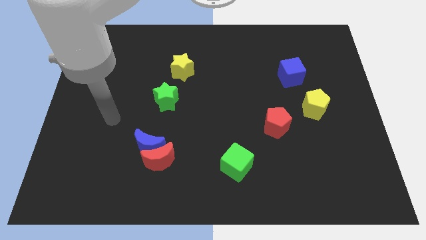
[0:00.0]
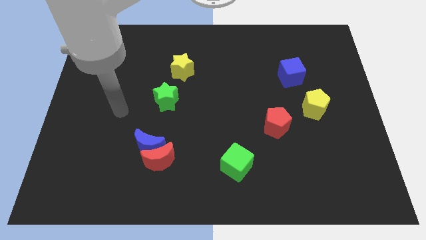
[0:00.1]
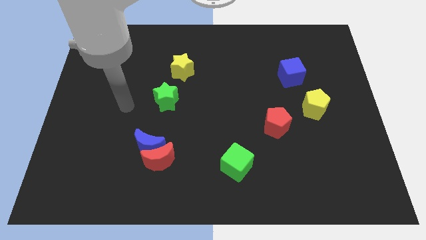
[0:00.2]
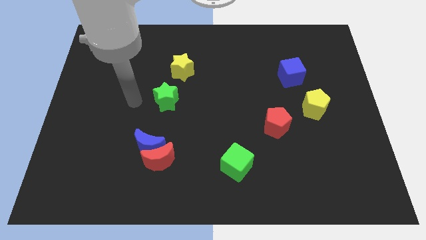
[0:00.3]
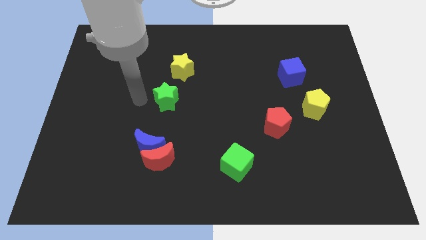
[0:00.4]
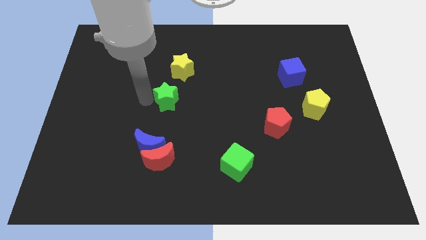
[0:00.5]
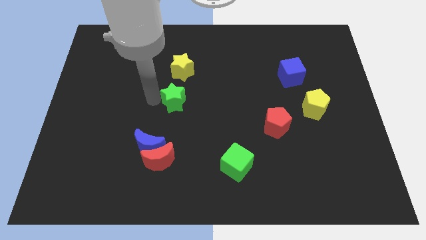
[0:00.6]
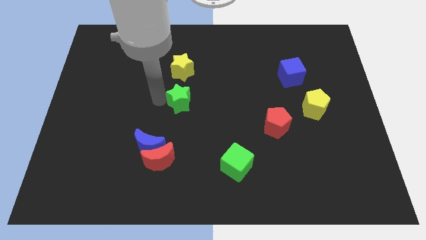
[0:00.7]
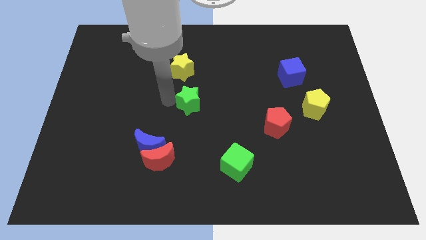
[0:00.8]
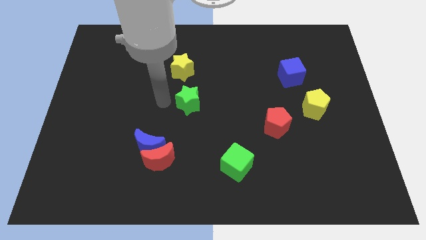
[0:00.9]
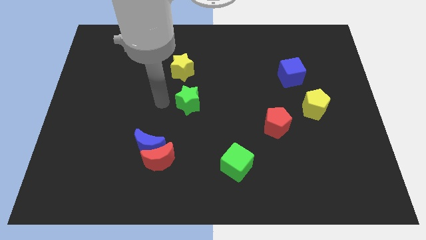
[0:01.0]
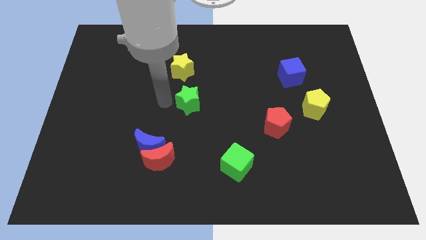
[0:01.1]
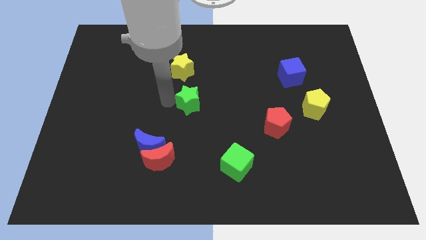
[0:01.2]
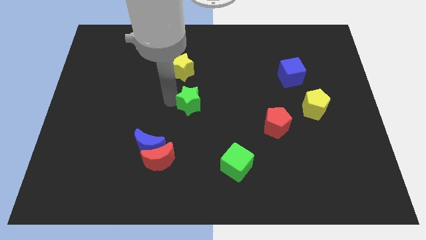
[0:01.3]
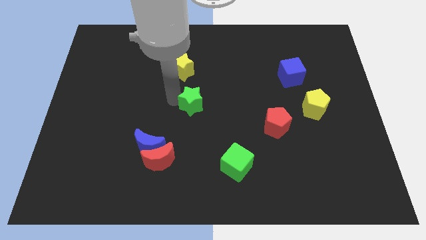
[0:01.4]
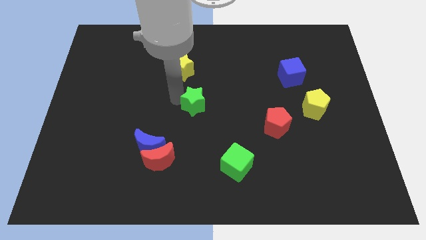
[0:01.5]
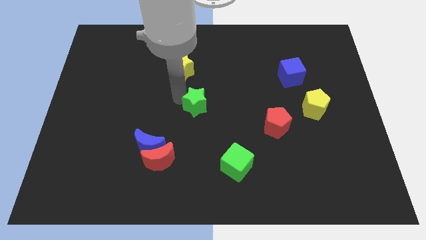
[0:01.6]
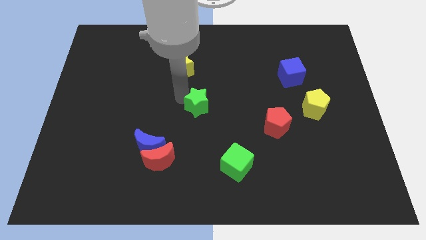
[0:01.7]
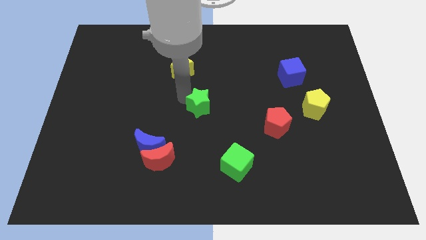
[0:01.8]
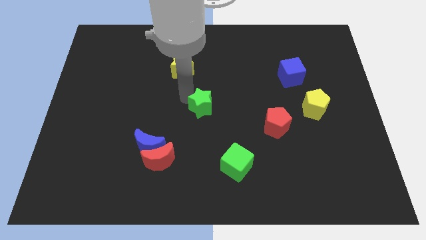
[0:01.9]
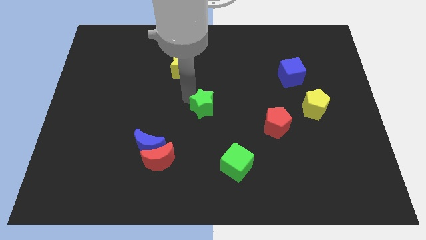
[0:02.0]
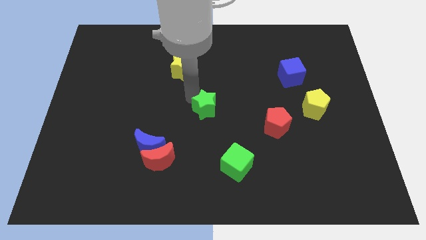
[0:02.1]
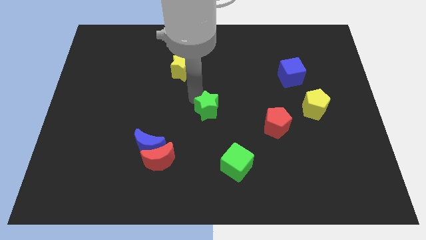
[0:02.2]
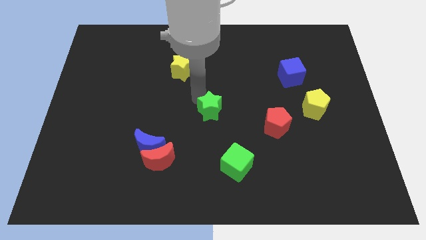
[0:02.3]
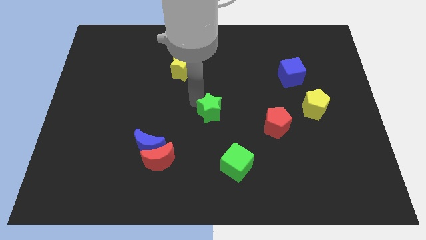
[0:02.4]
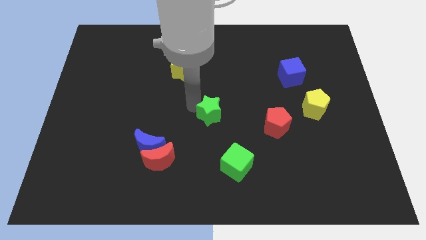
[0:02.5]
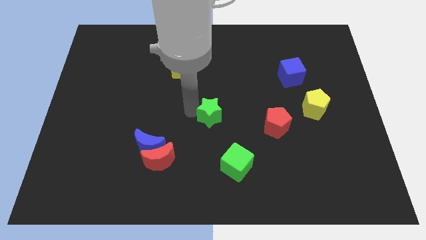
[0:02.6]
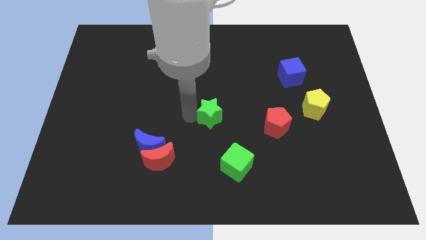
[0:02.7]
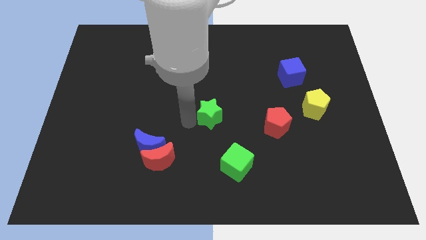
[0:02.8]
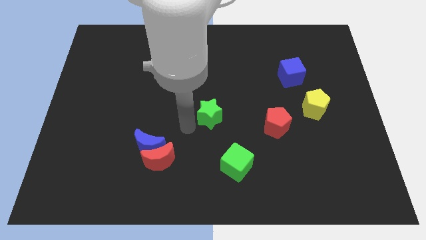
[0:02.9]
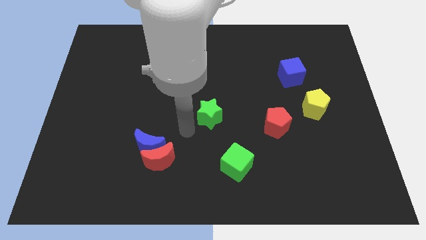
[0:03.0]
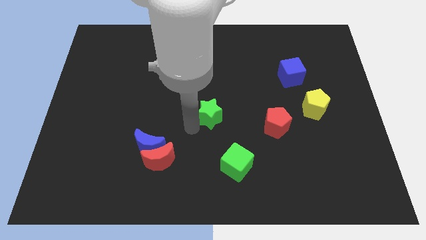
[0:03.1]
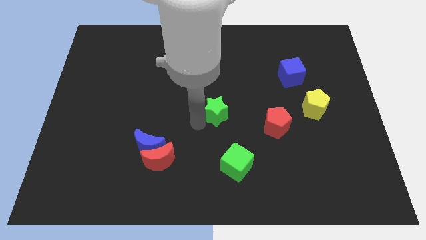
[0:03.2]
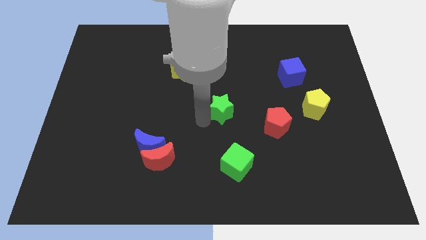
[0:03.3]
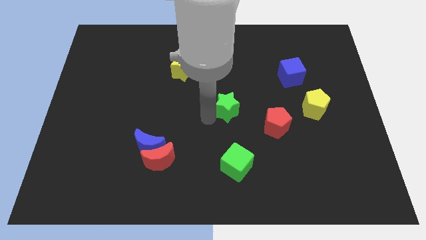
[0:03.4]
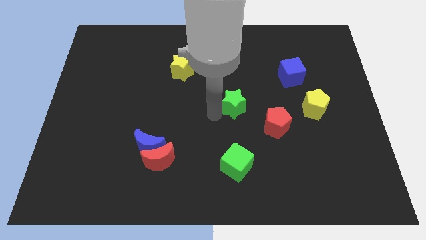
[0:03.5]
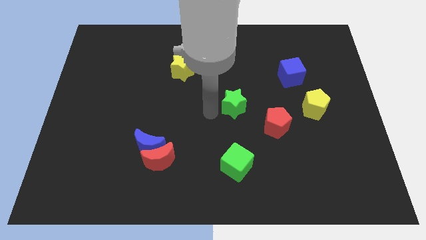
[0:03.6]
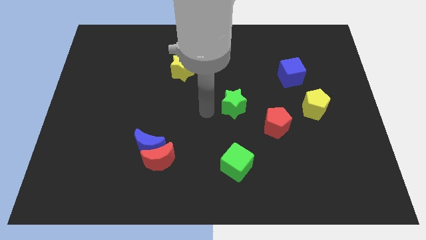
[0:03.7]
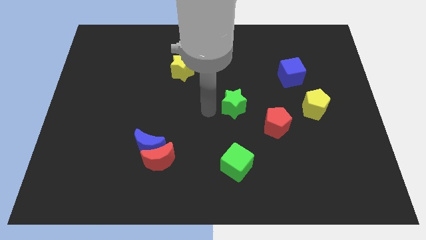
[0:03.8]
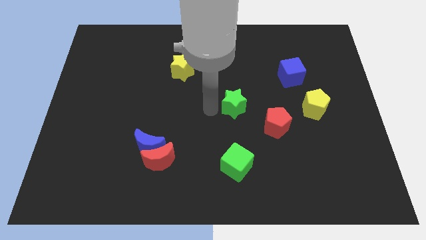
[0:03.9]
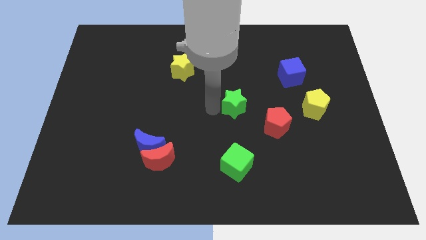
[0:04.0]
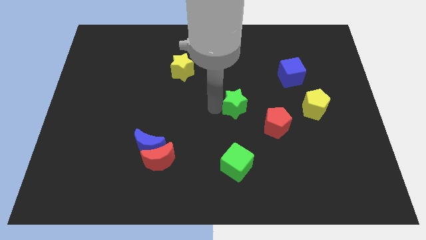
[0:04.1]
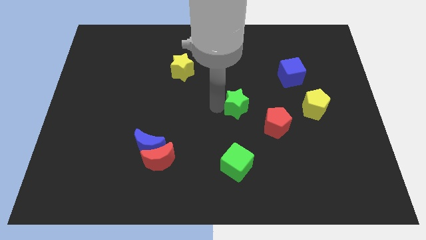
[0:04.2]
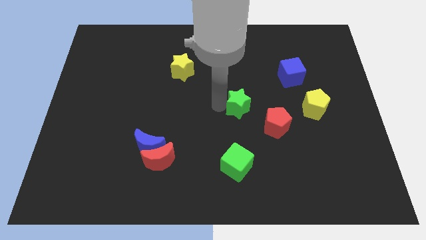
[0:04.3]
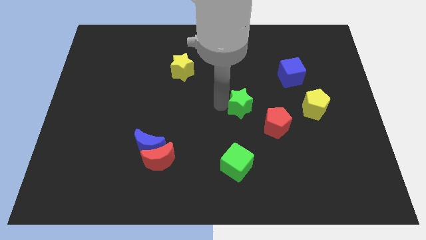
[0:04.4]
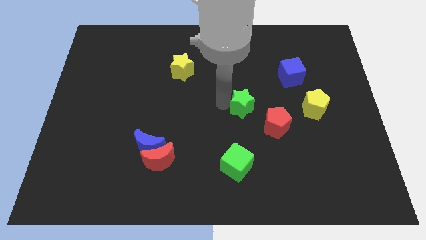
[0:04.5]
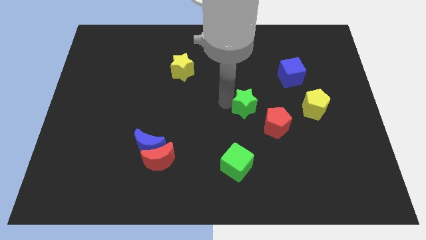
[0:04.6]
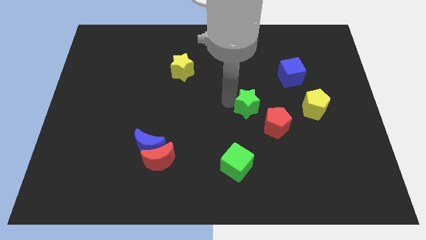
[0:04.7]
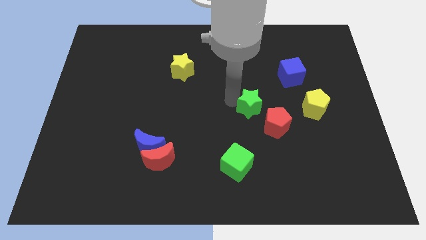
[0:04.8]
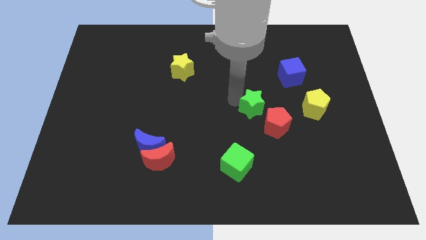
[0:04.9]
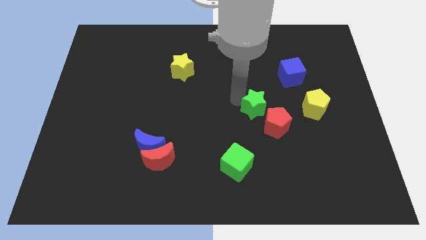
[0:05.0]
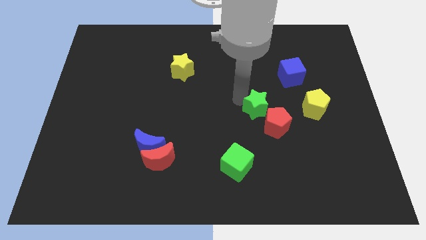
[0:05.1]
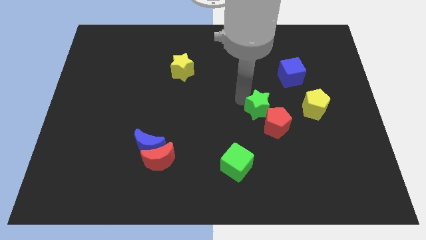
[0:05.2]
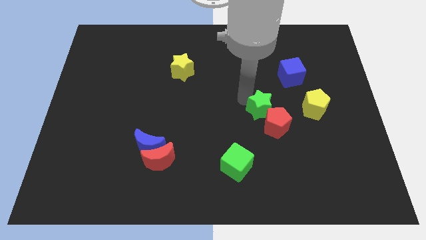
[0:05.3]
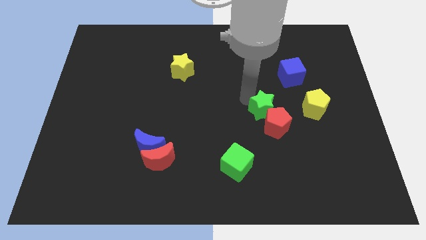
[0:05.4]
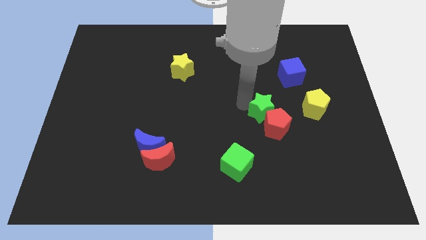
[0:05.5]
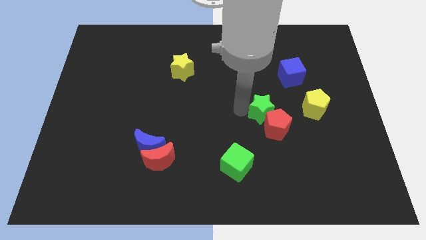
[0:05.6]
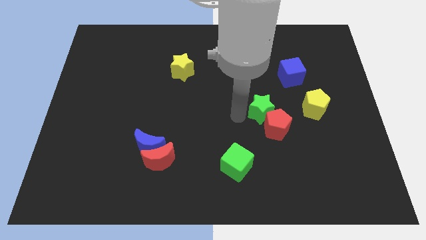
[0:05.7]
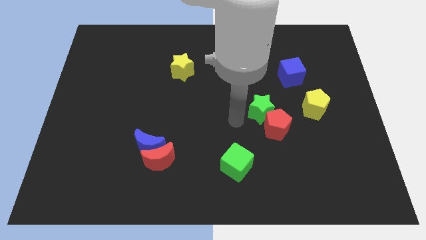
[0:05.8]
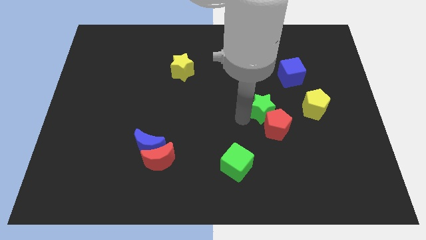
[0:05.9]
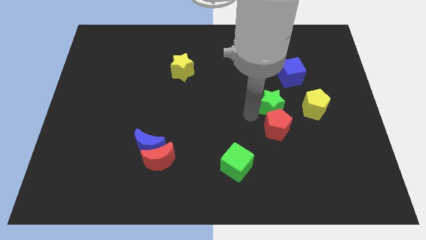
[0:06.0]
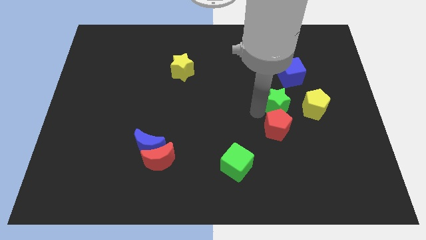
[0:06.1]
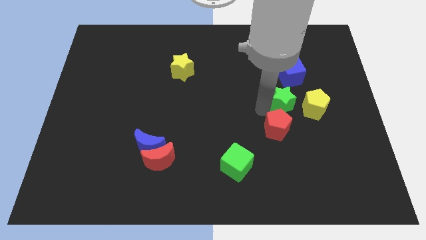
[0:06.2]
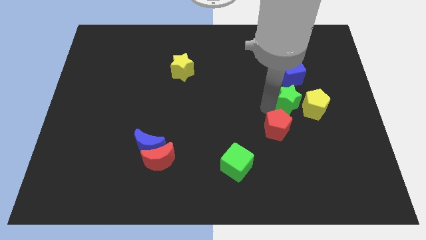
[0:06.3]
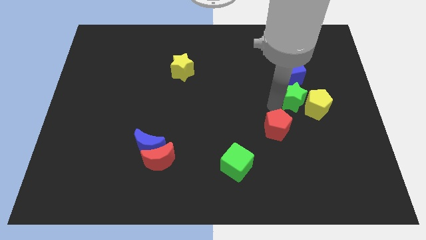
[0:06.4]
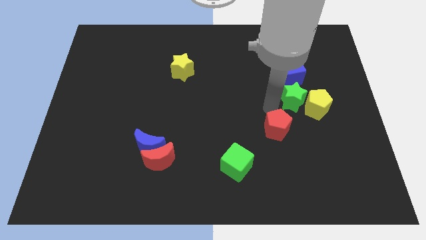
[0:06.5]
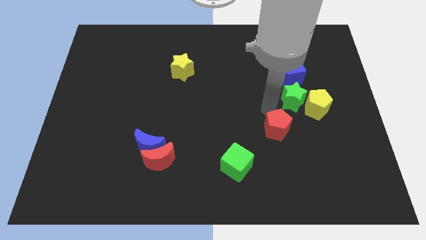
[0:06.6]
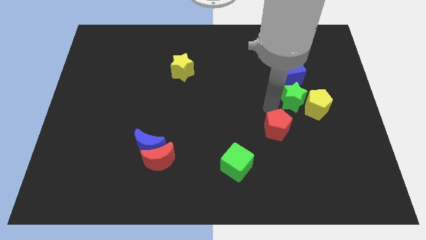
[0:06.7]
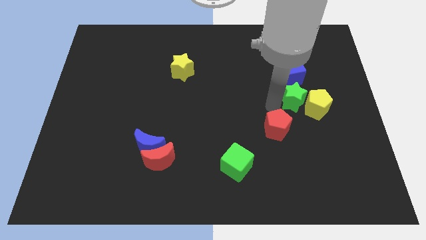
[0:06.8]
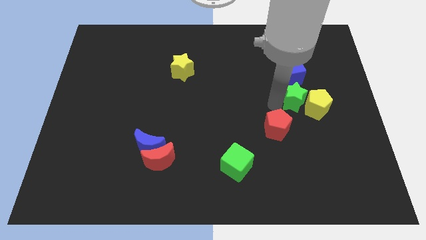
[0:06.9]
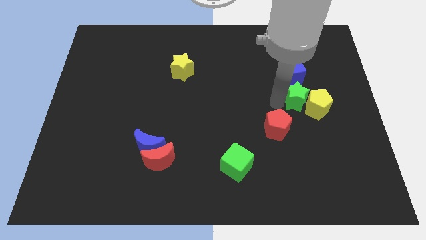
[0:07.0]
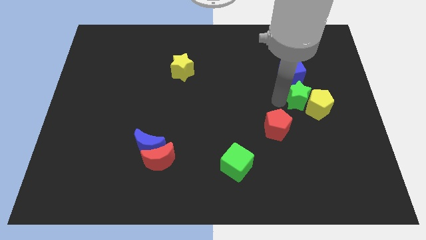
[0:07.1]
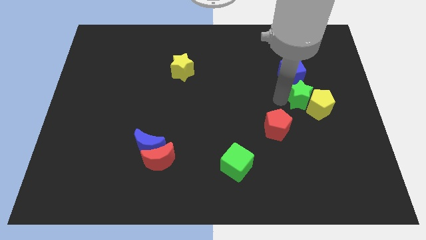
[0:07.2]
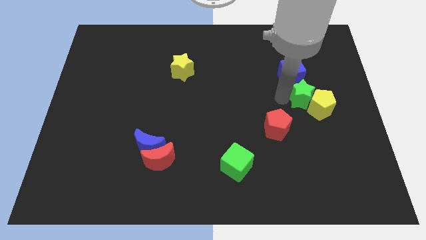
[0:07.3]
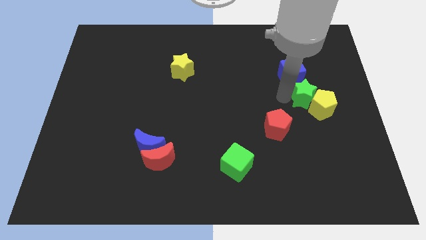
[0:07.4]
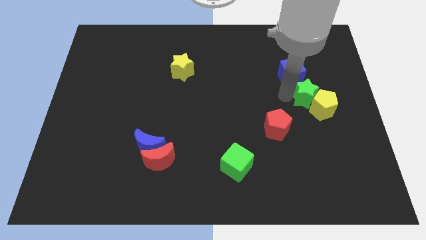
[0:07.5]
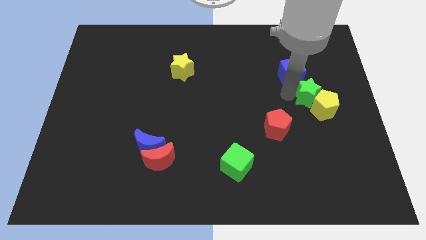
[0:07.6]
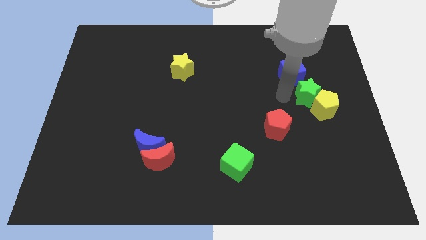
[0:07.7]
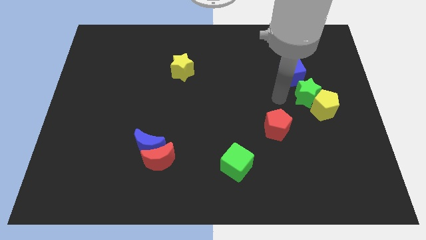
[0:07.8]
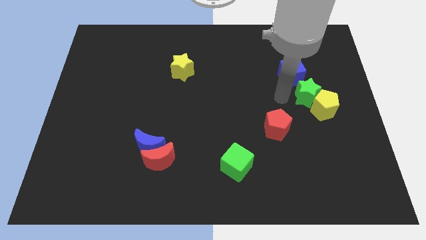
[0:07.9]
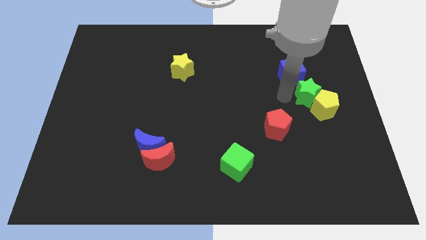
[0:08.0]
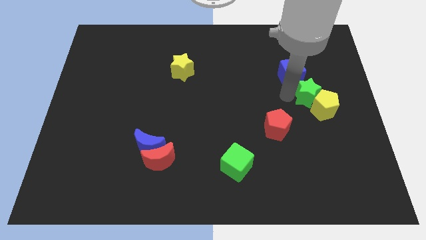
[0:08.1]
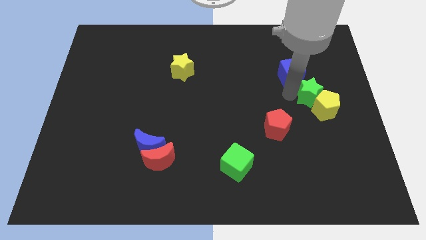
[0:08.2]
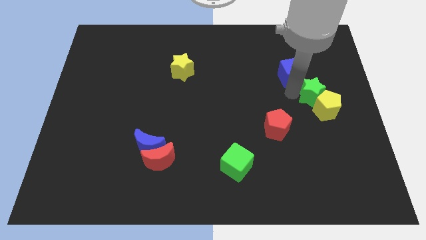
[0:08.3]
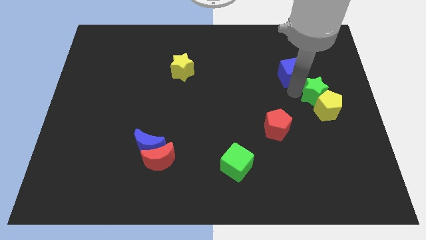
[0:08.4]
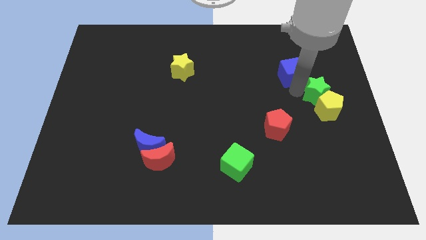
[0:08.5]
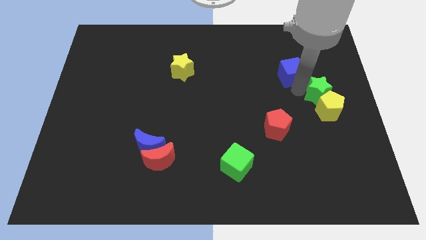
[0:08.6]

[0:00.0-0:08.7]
push the green star to the right side
